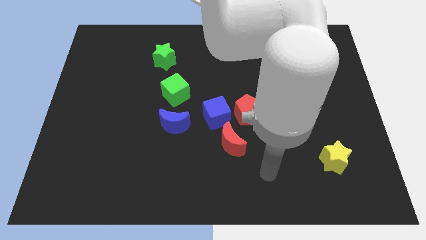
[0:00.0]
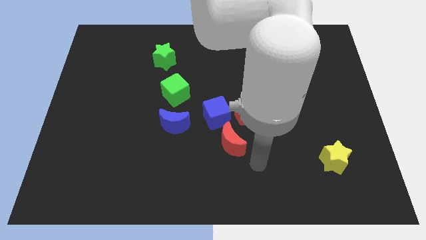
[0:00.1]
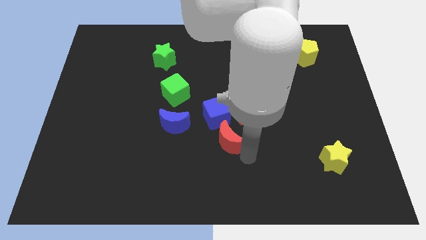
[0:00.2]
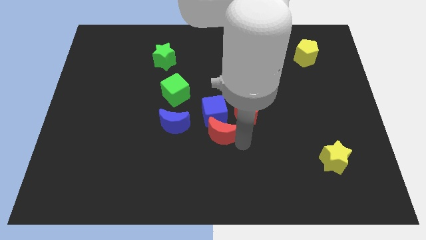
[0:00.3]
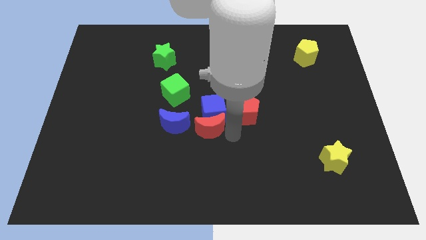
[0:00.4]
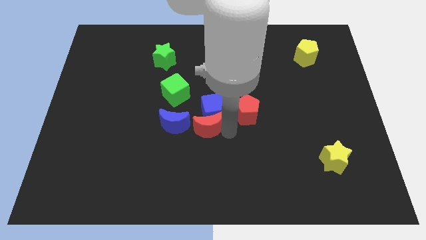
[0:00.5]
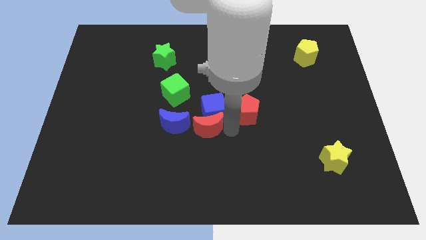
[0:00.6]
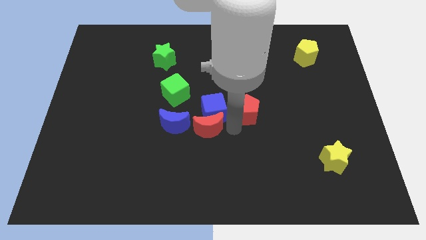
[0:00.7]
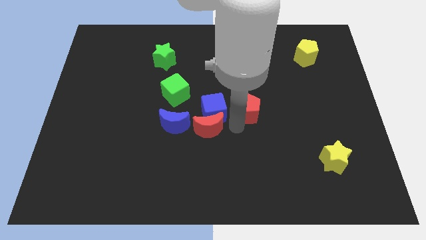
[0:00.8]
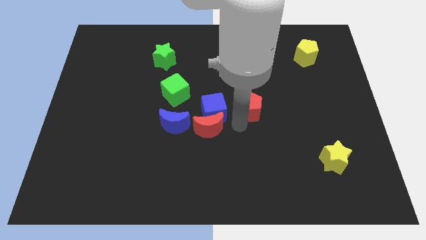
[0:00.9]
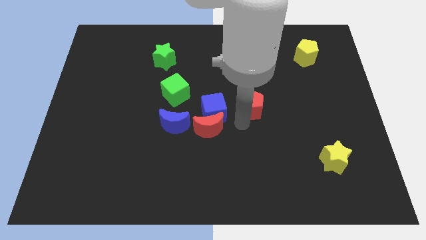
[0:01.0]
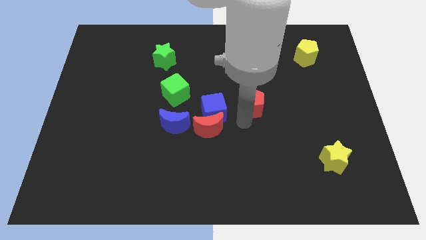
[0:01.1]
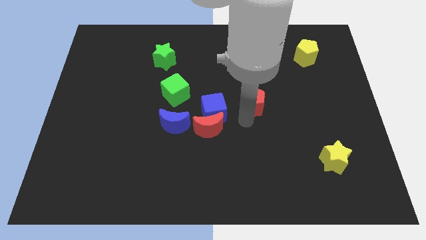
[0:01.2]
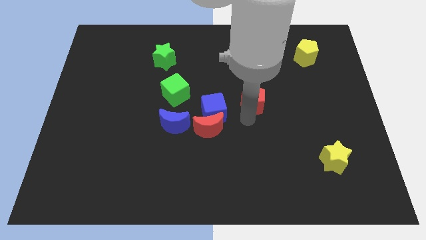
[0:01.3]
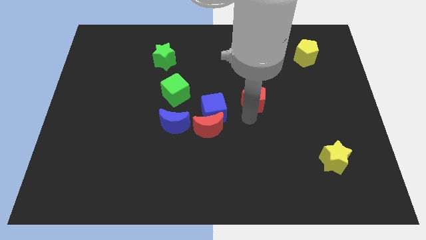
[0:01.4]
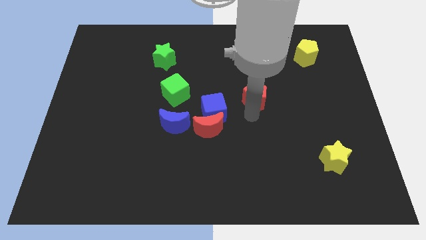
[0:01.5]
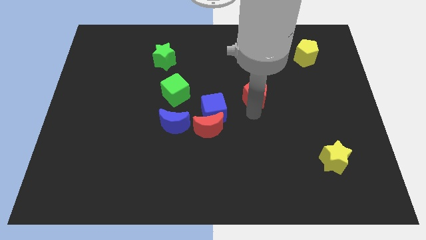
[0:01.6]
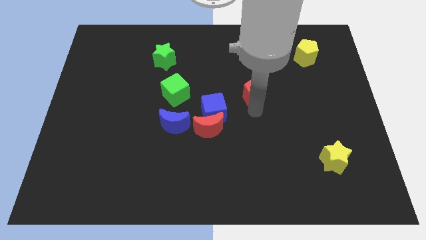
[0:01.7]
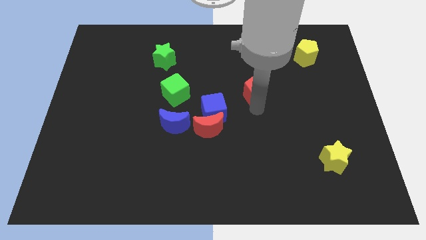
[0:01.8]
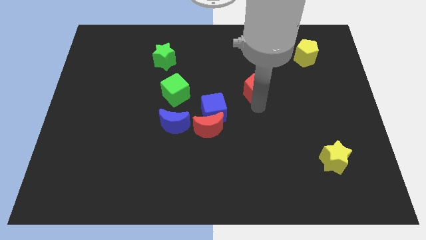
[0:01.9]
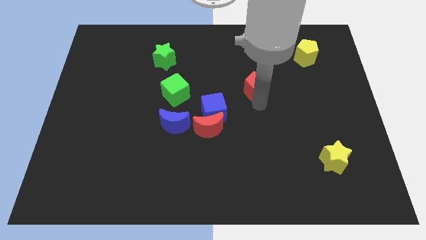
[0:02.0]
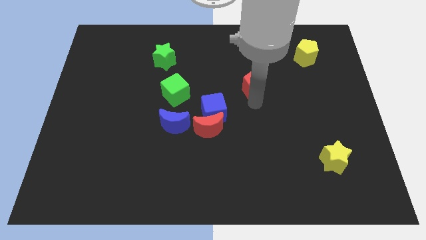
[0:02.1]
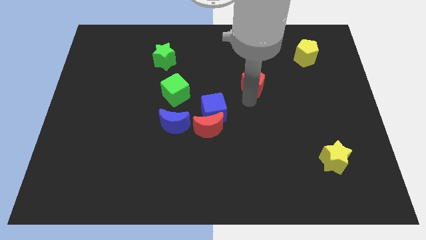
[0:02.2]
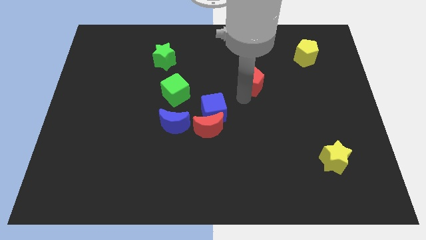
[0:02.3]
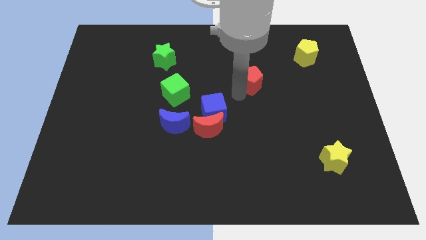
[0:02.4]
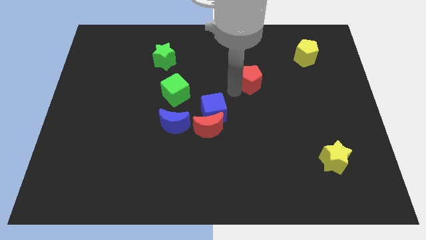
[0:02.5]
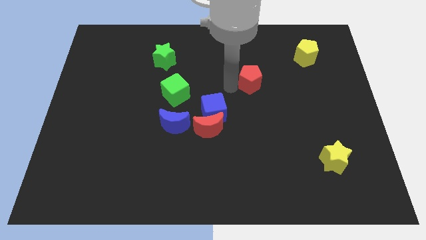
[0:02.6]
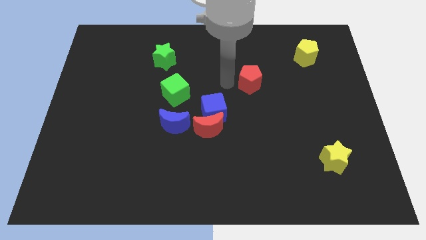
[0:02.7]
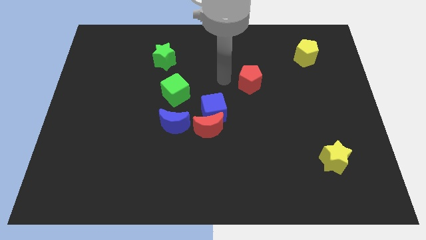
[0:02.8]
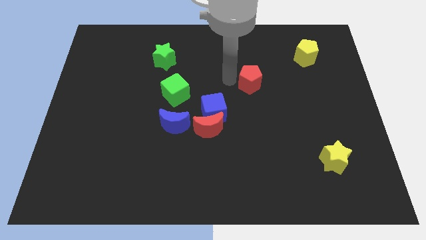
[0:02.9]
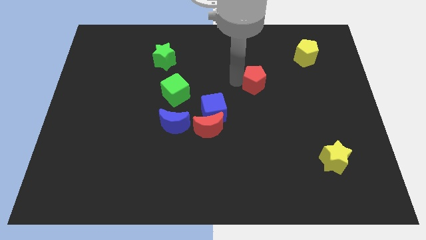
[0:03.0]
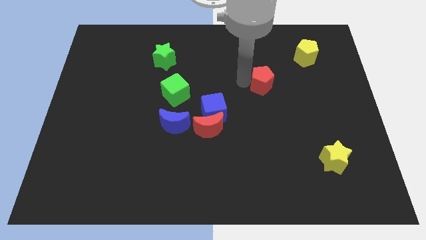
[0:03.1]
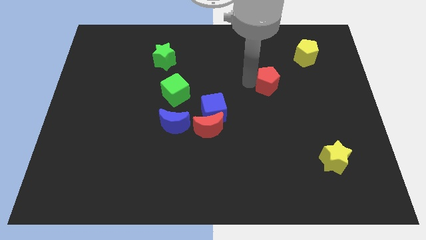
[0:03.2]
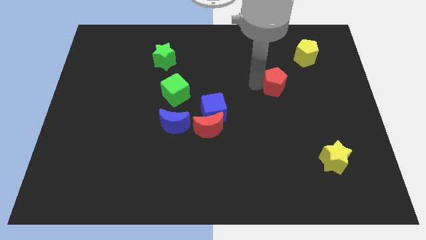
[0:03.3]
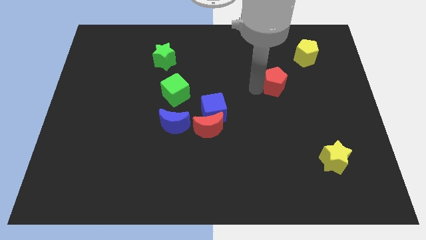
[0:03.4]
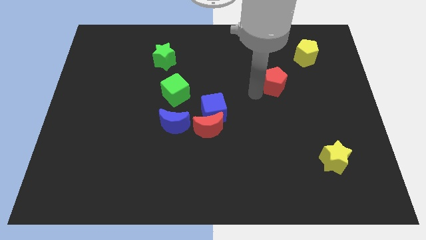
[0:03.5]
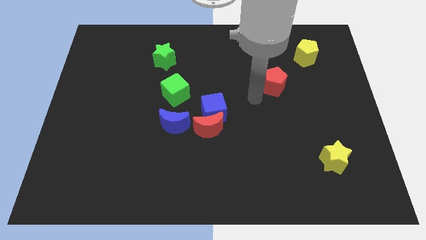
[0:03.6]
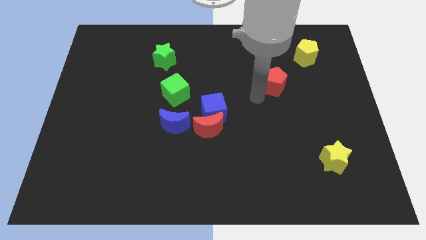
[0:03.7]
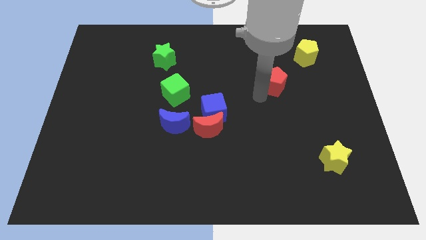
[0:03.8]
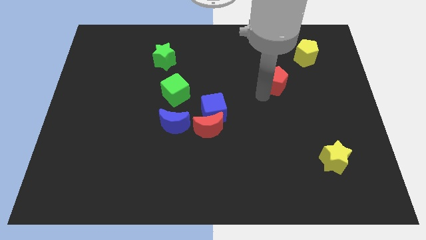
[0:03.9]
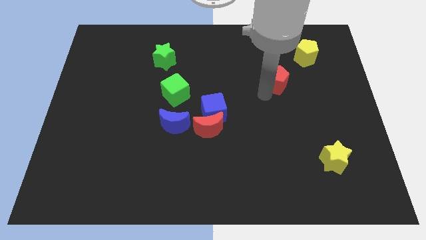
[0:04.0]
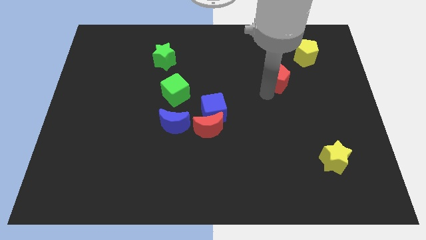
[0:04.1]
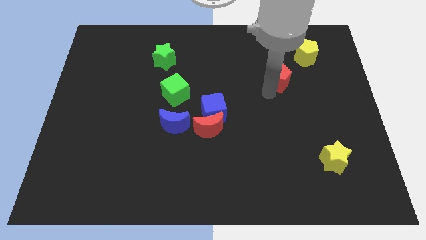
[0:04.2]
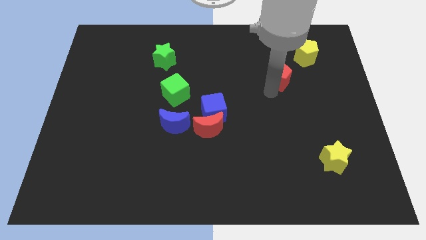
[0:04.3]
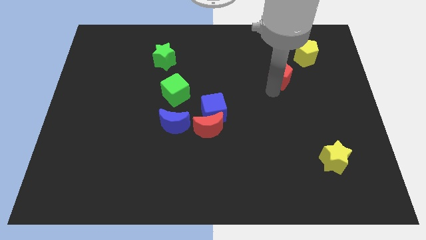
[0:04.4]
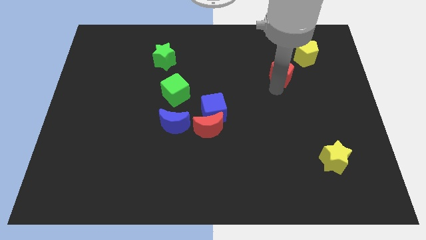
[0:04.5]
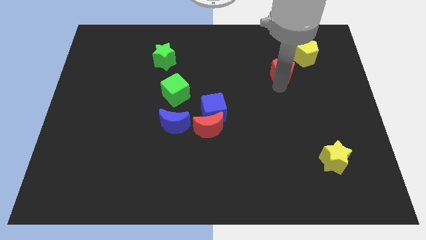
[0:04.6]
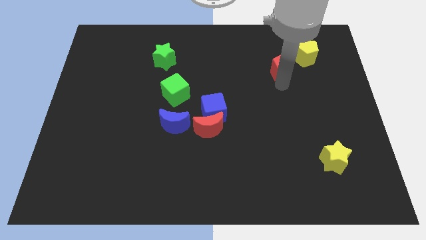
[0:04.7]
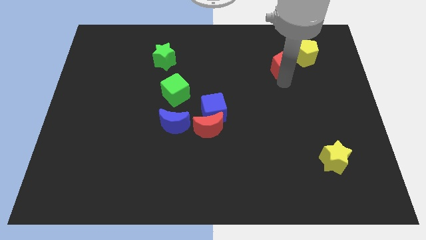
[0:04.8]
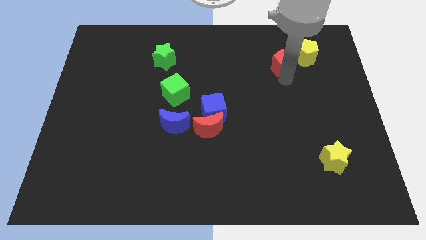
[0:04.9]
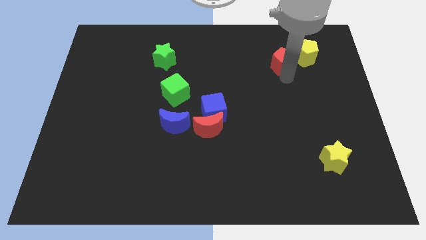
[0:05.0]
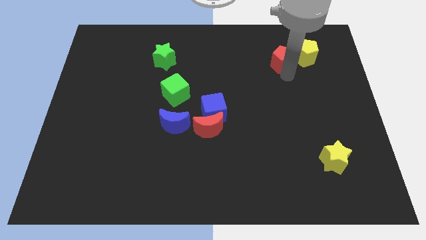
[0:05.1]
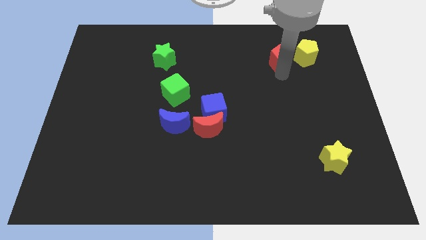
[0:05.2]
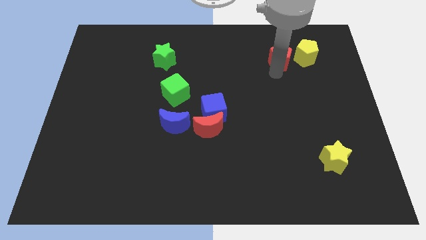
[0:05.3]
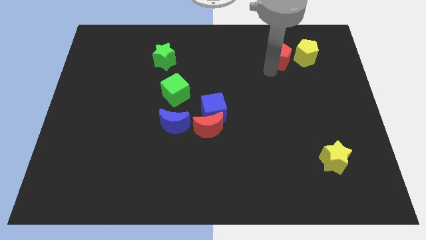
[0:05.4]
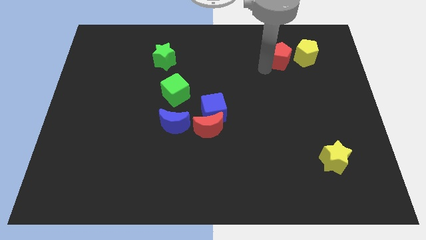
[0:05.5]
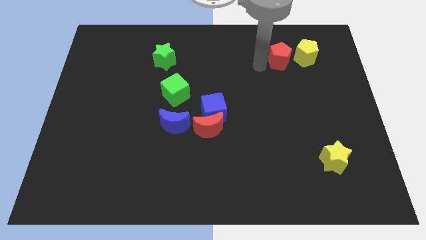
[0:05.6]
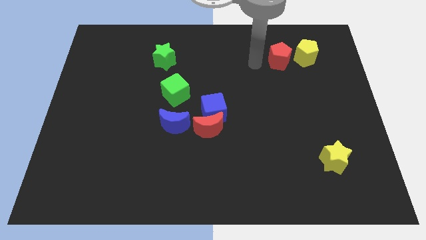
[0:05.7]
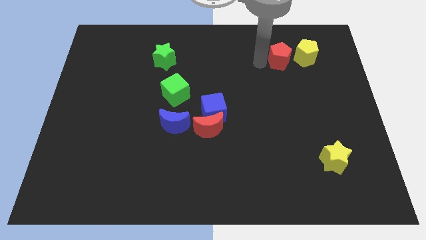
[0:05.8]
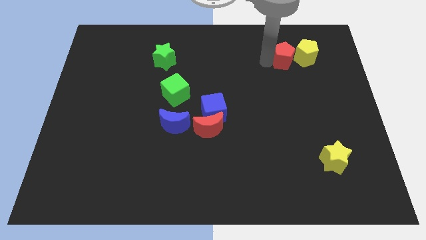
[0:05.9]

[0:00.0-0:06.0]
push the red pentagon to the yellow pentagon

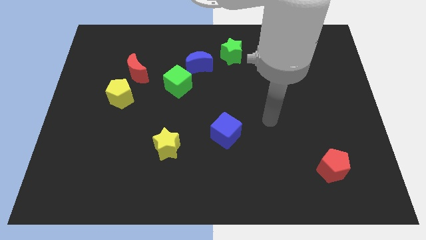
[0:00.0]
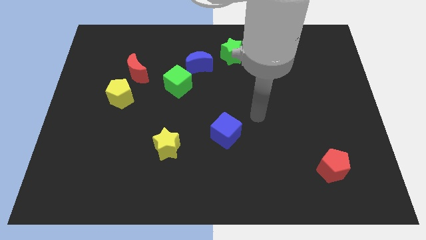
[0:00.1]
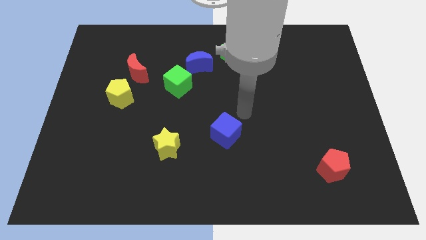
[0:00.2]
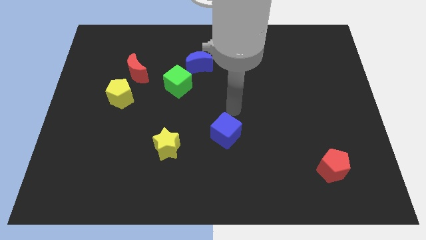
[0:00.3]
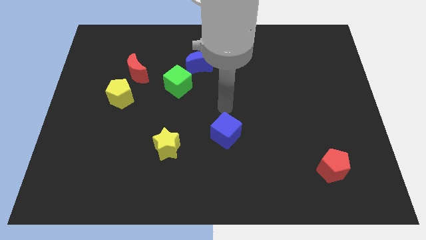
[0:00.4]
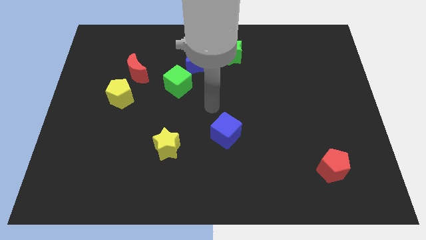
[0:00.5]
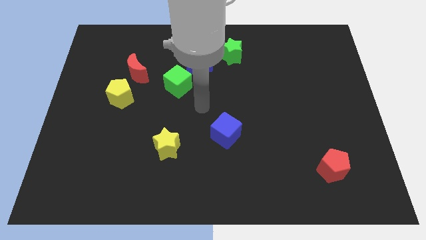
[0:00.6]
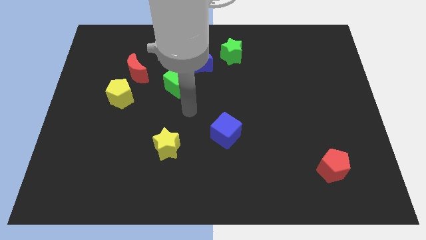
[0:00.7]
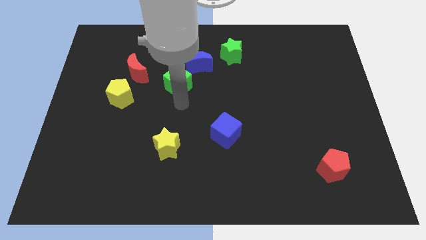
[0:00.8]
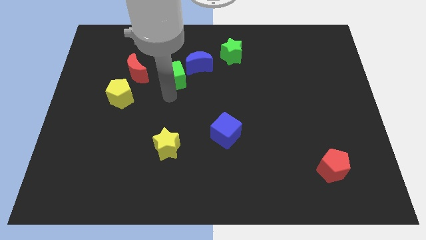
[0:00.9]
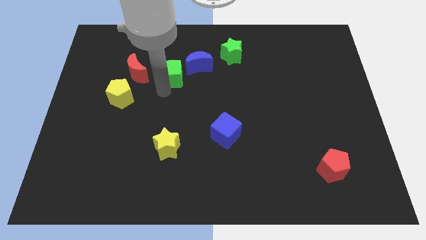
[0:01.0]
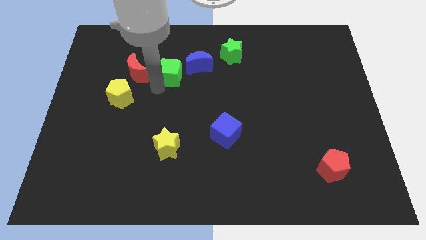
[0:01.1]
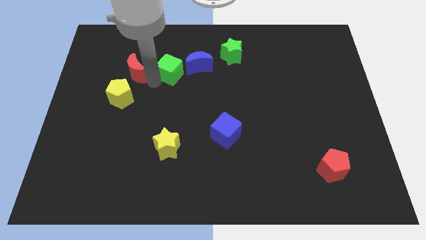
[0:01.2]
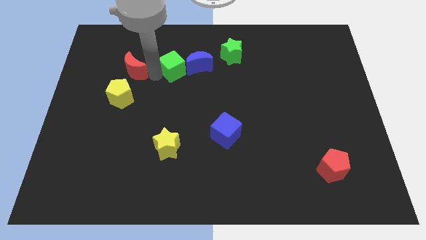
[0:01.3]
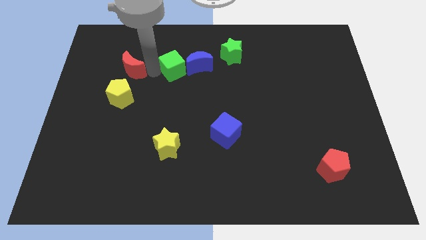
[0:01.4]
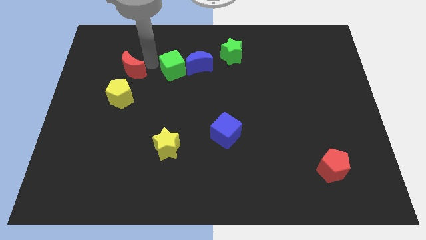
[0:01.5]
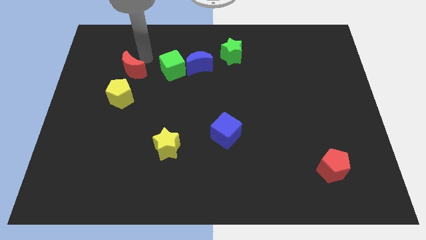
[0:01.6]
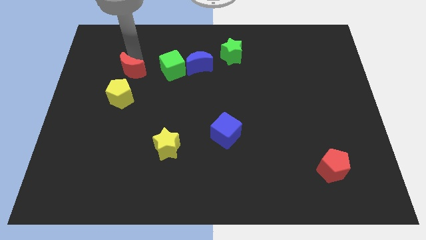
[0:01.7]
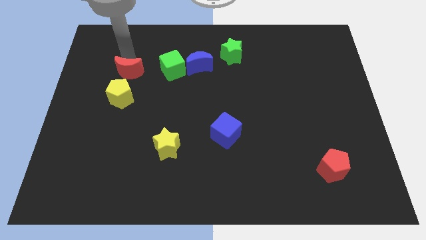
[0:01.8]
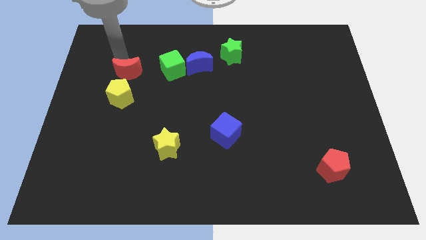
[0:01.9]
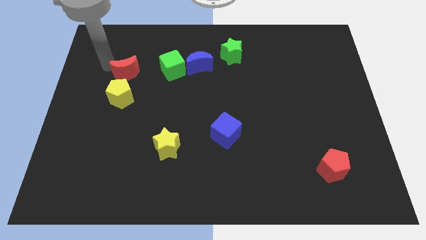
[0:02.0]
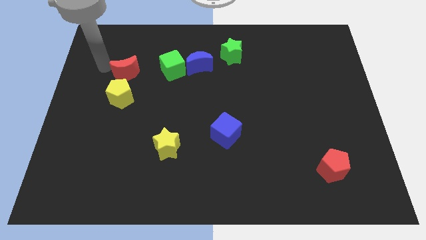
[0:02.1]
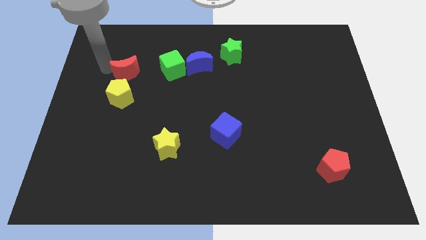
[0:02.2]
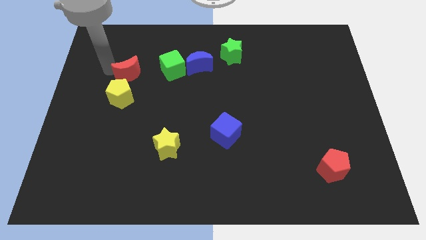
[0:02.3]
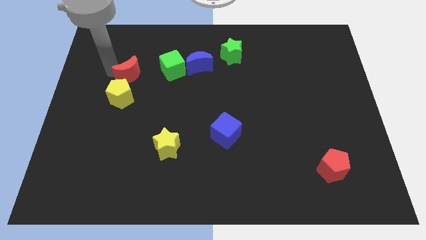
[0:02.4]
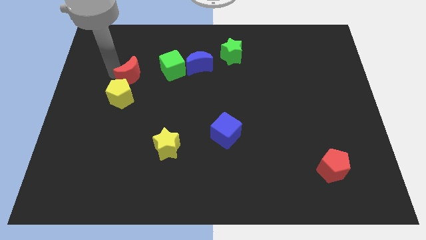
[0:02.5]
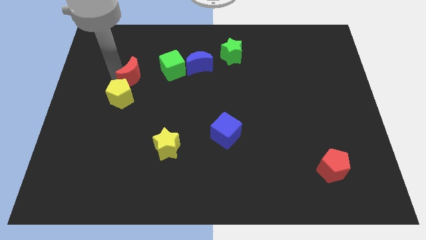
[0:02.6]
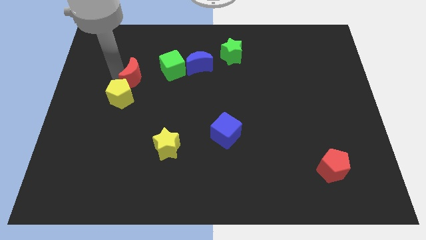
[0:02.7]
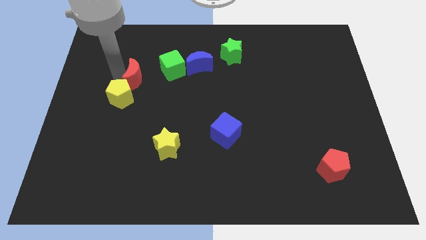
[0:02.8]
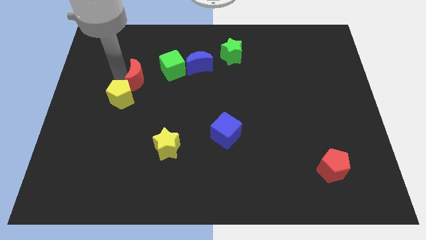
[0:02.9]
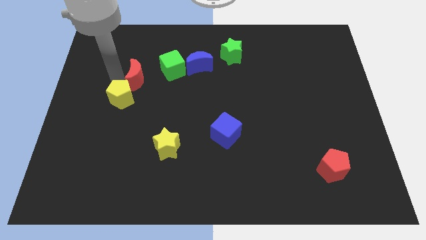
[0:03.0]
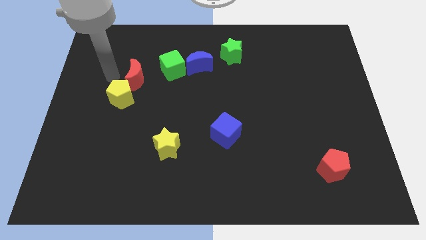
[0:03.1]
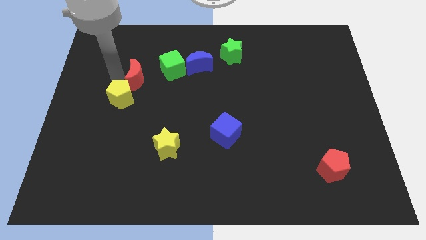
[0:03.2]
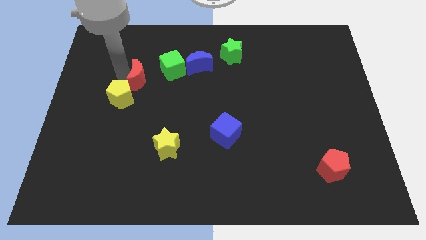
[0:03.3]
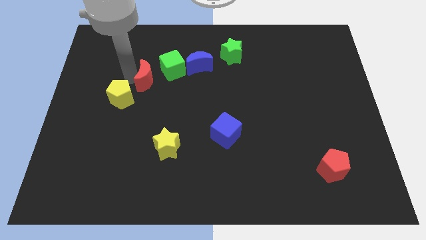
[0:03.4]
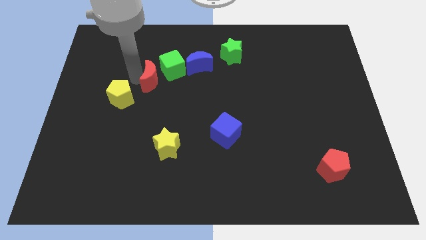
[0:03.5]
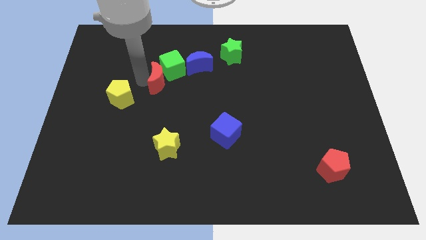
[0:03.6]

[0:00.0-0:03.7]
move the red moon towards the green cube
